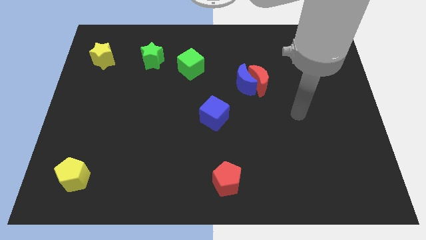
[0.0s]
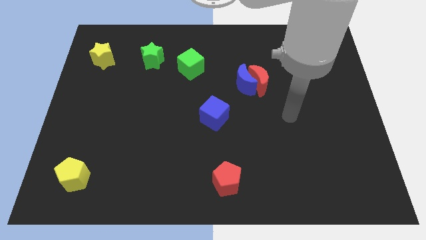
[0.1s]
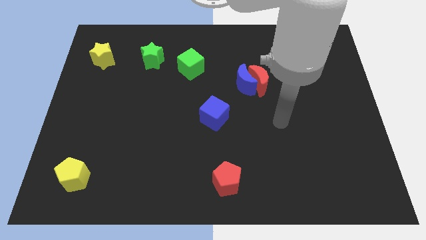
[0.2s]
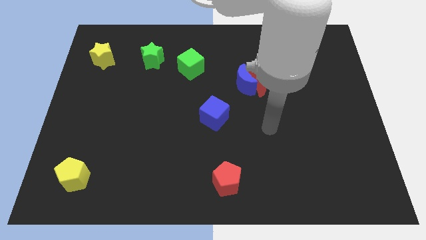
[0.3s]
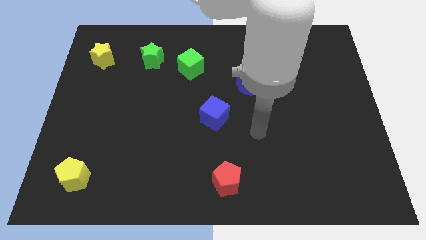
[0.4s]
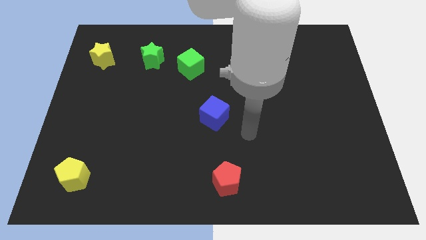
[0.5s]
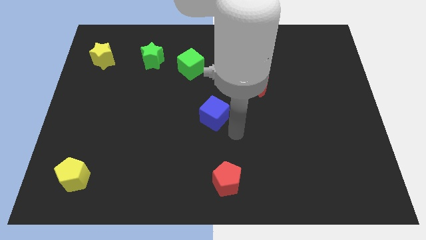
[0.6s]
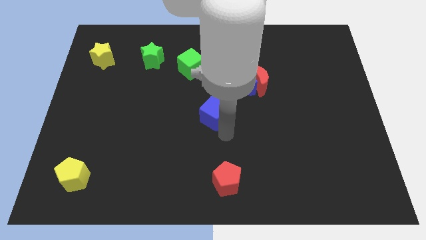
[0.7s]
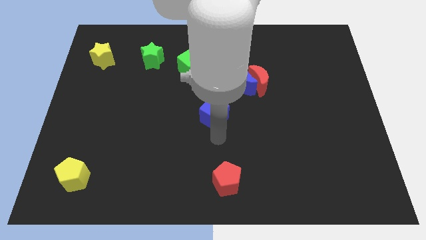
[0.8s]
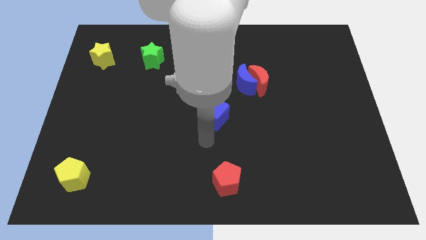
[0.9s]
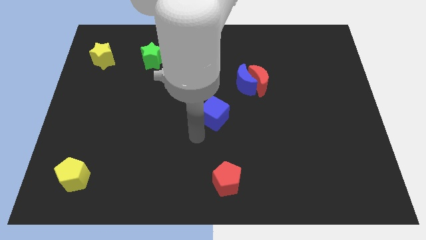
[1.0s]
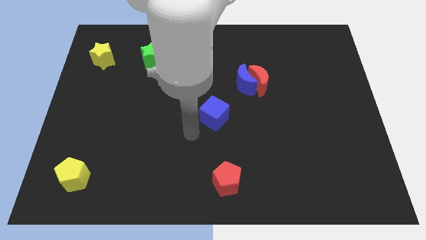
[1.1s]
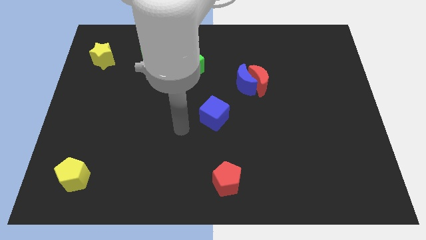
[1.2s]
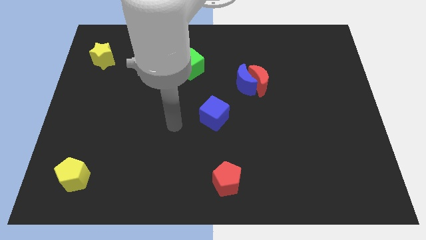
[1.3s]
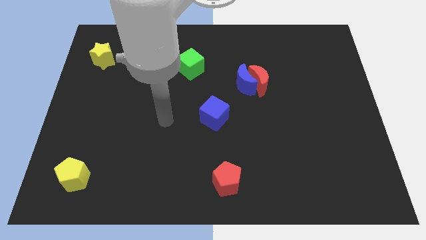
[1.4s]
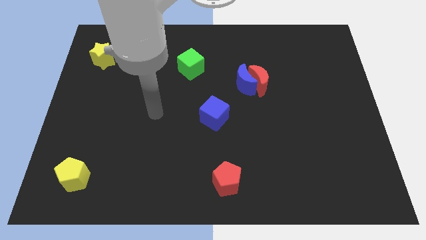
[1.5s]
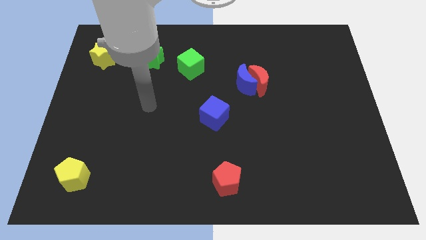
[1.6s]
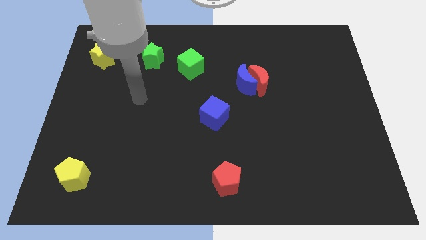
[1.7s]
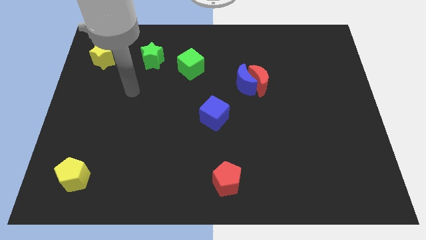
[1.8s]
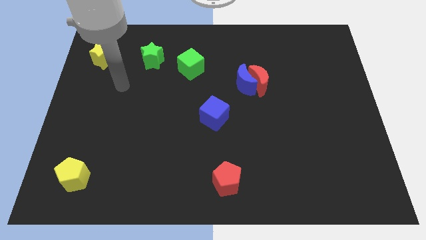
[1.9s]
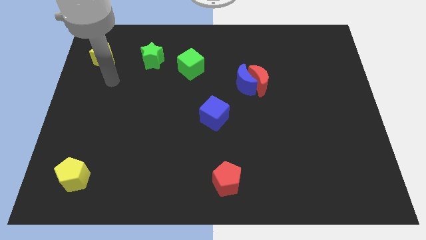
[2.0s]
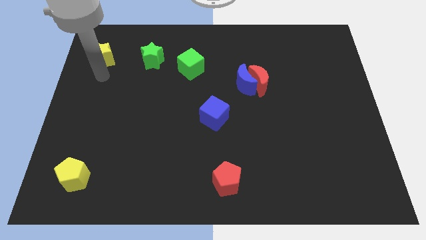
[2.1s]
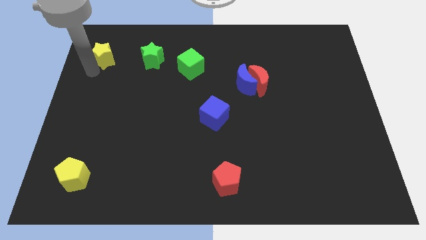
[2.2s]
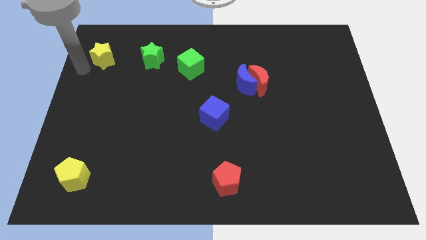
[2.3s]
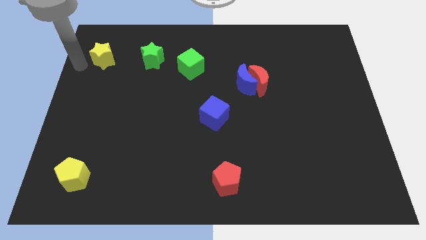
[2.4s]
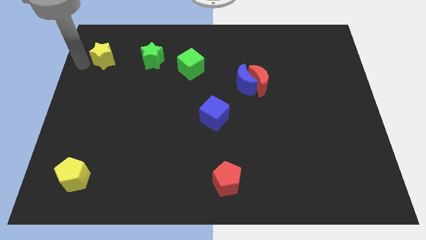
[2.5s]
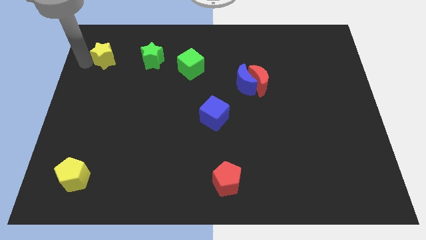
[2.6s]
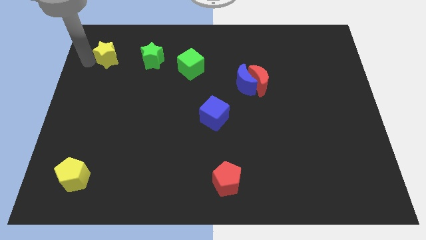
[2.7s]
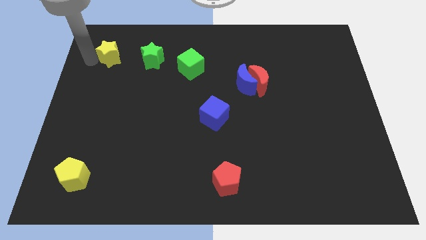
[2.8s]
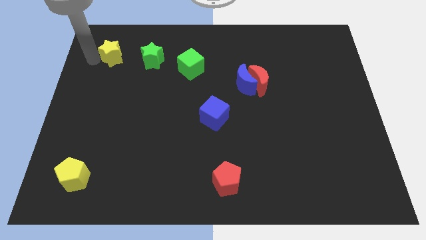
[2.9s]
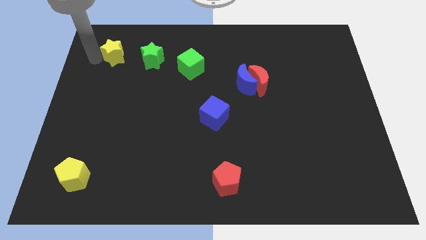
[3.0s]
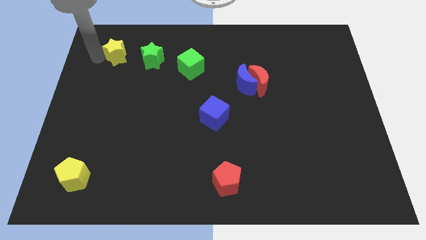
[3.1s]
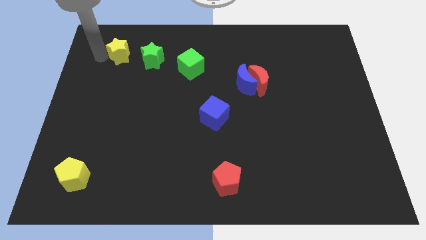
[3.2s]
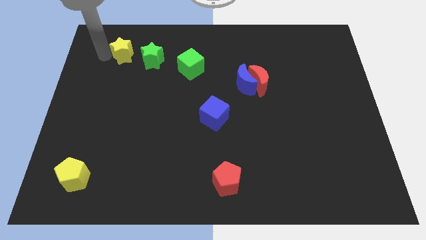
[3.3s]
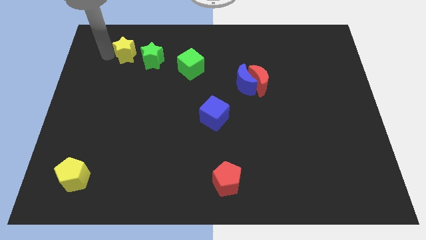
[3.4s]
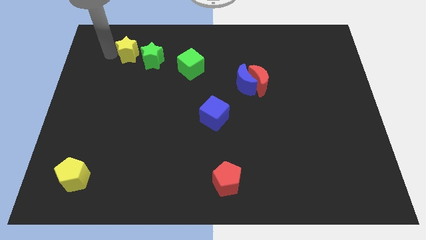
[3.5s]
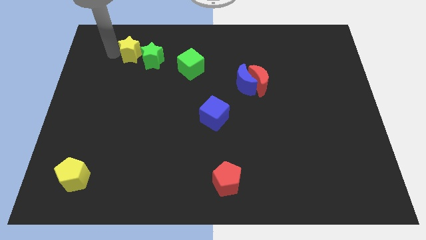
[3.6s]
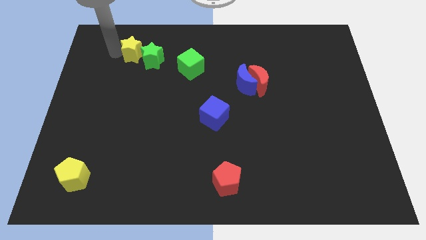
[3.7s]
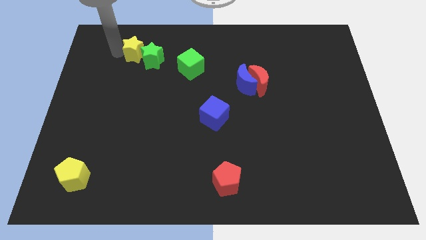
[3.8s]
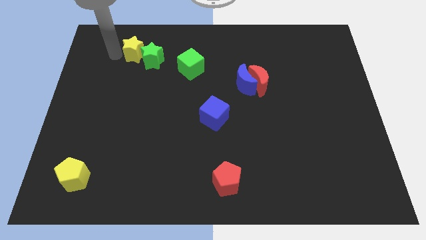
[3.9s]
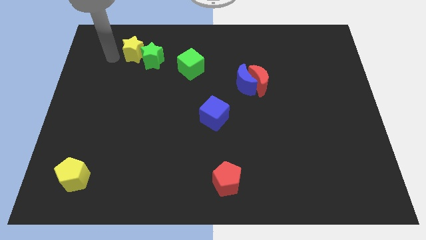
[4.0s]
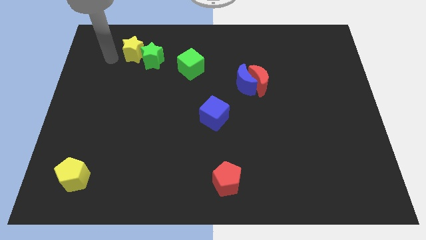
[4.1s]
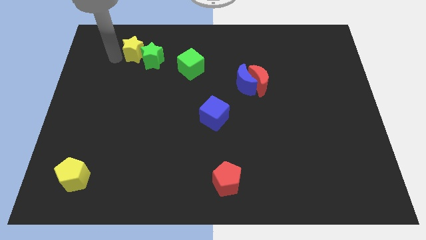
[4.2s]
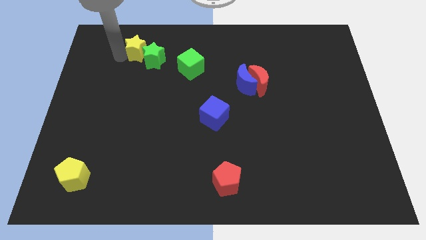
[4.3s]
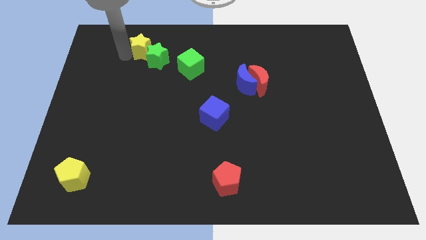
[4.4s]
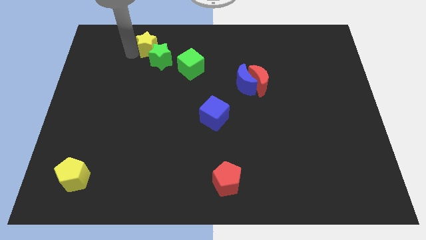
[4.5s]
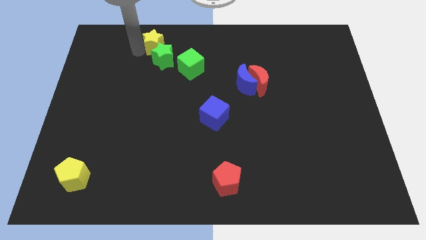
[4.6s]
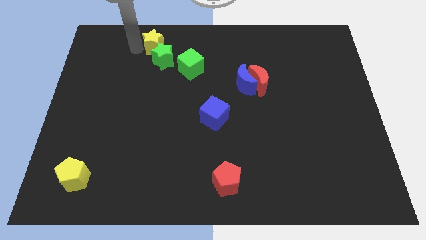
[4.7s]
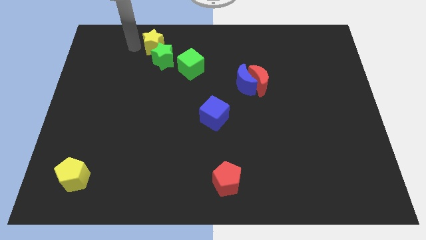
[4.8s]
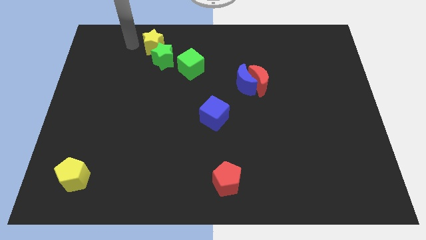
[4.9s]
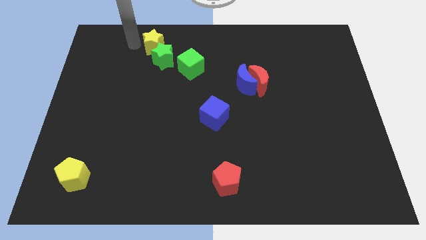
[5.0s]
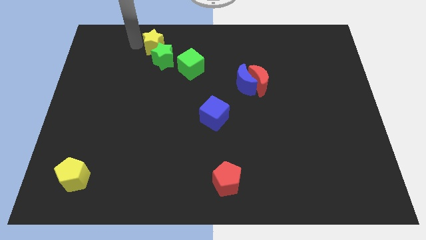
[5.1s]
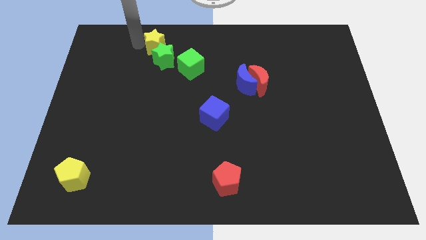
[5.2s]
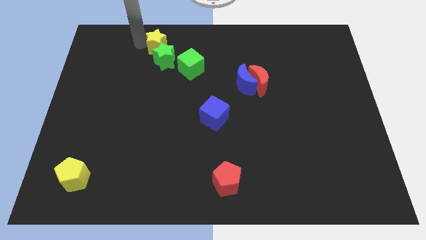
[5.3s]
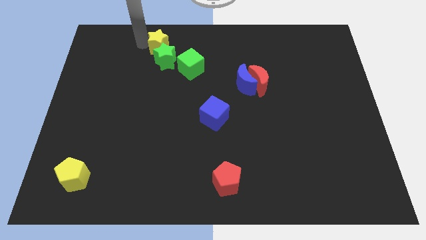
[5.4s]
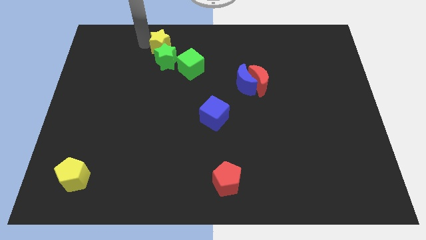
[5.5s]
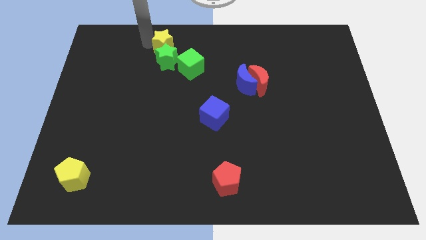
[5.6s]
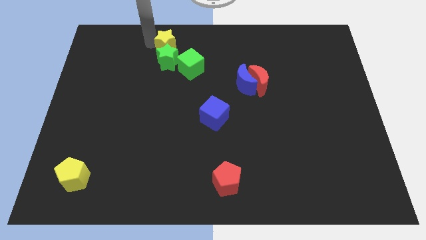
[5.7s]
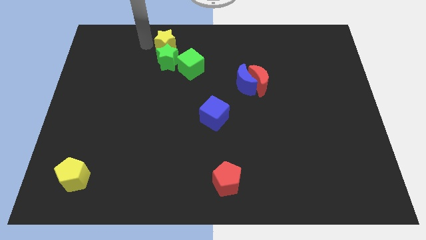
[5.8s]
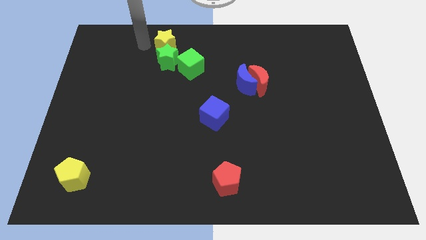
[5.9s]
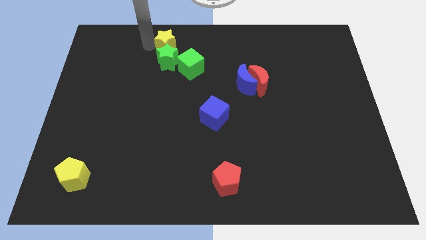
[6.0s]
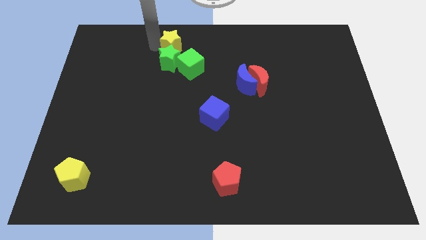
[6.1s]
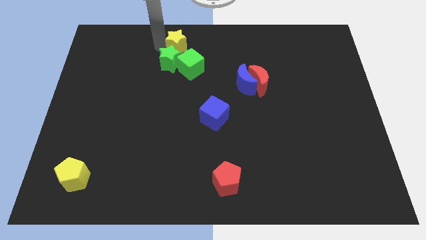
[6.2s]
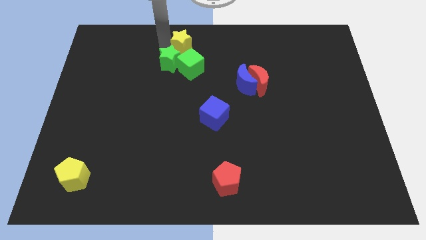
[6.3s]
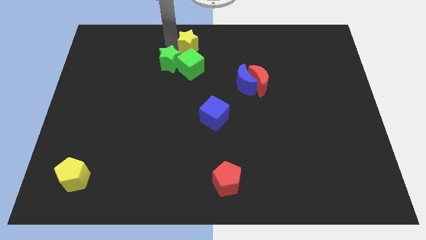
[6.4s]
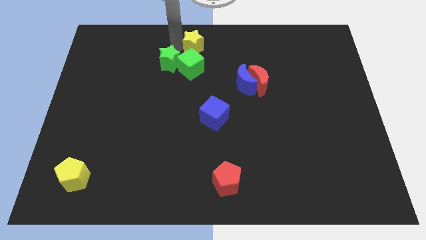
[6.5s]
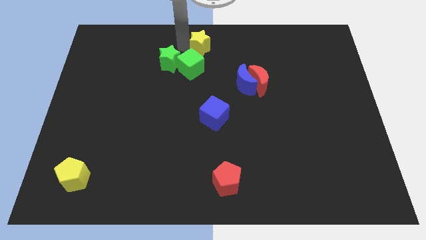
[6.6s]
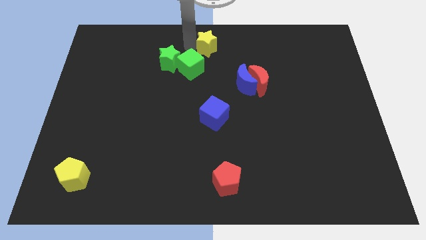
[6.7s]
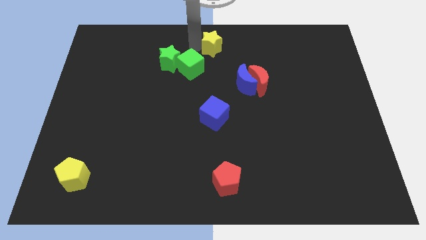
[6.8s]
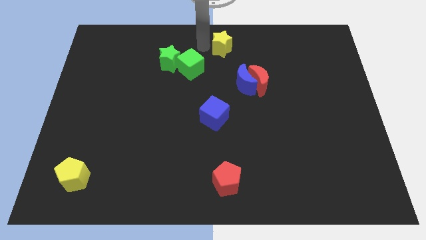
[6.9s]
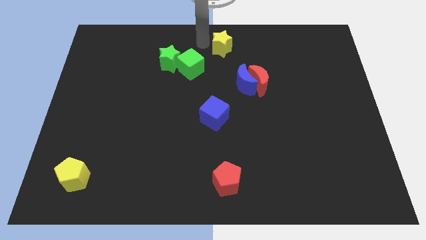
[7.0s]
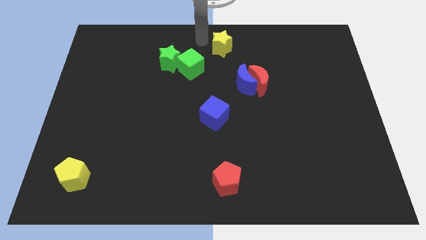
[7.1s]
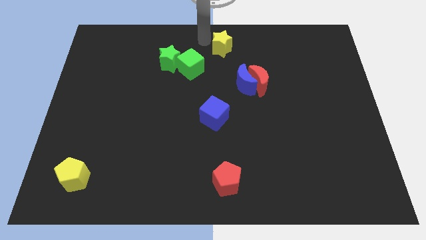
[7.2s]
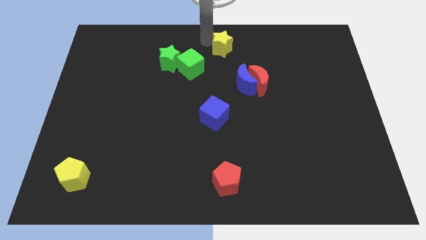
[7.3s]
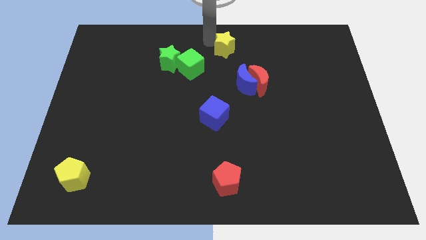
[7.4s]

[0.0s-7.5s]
put the yellow star above the blue moon
